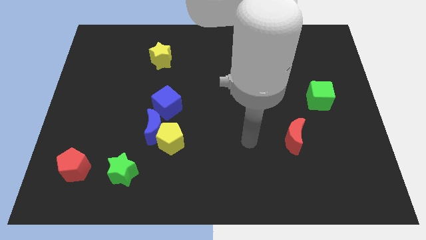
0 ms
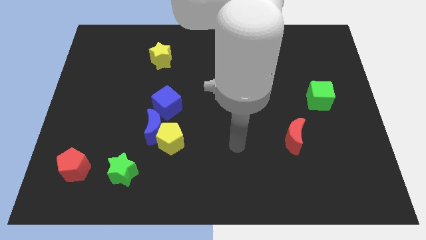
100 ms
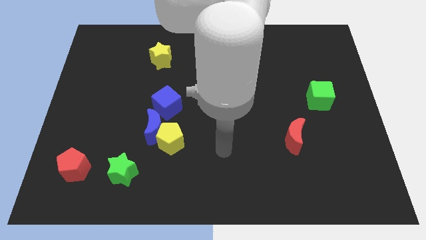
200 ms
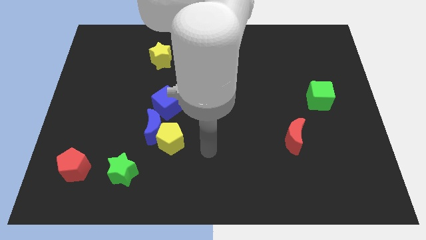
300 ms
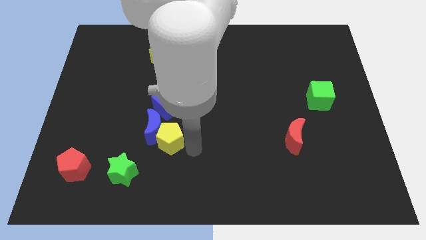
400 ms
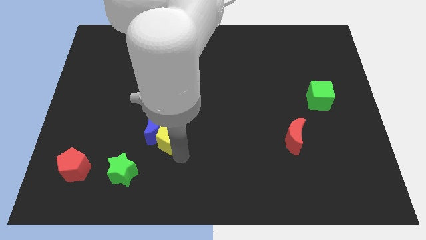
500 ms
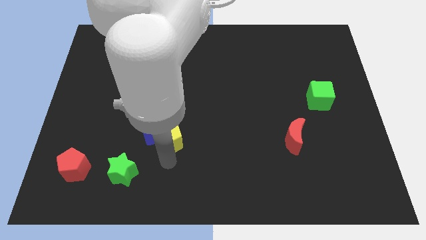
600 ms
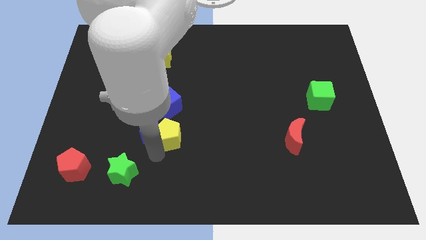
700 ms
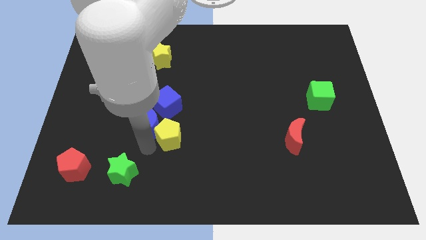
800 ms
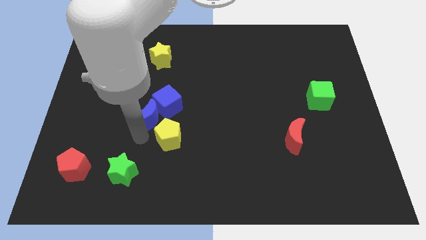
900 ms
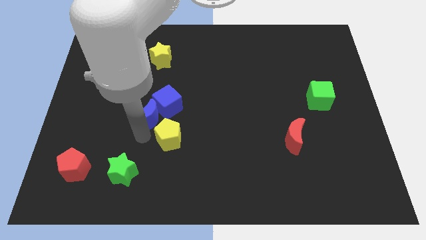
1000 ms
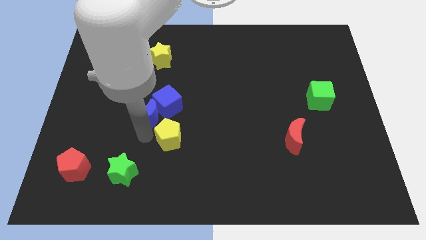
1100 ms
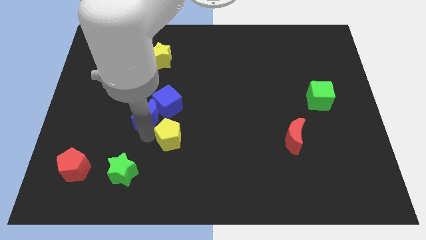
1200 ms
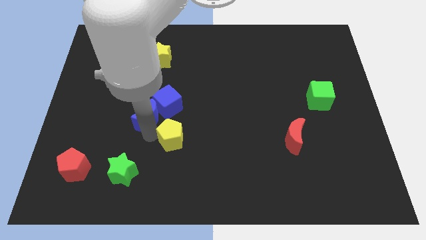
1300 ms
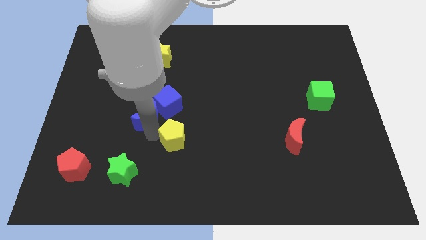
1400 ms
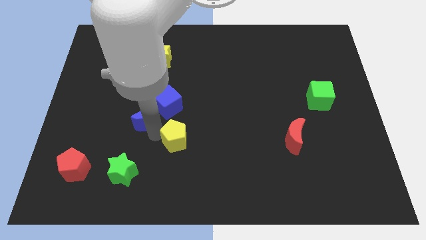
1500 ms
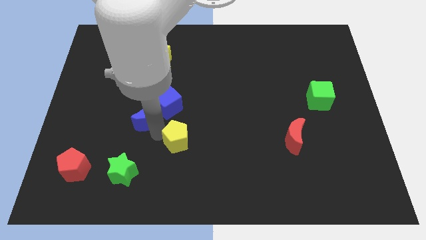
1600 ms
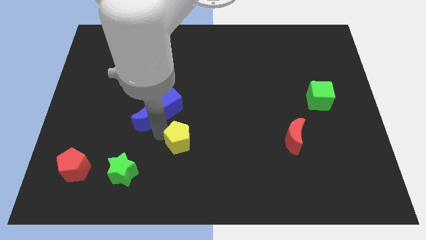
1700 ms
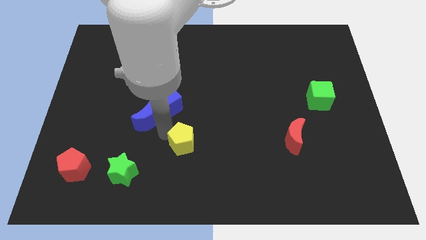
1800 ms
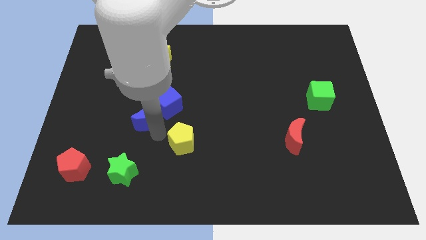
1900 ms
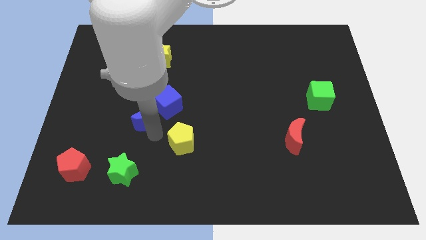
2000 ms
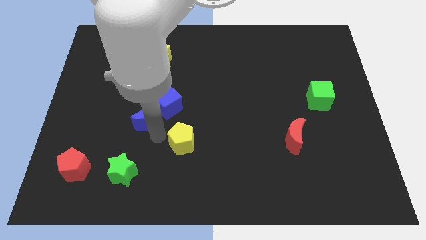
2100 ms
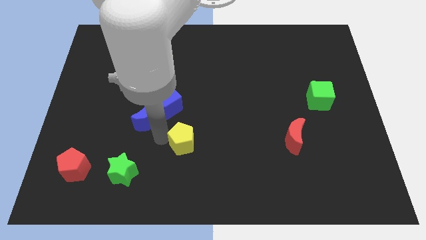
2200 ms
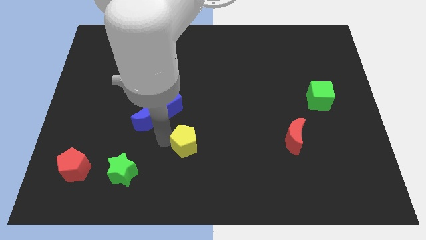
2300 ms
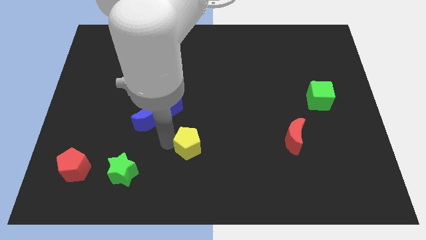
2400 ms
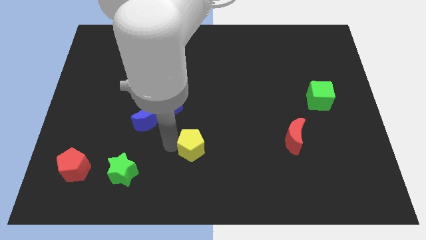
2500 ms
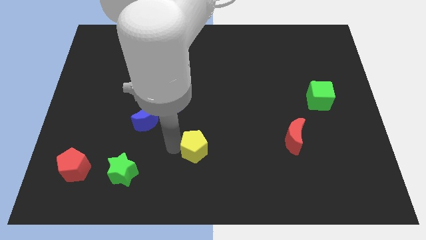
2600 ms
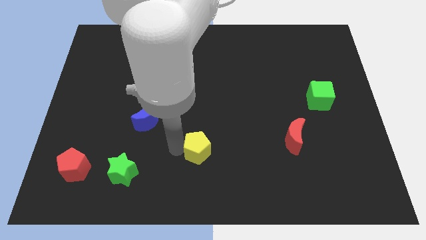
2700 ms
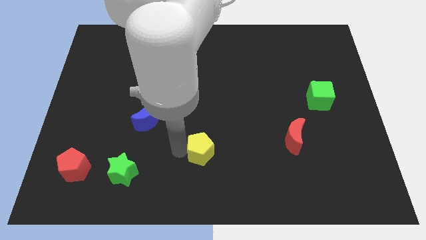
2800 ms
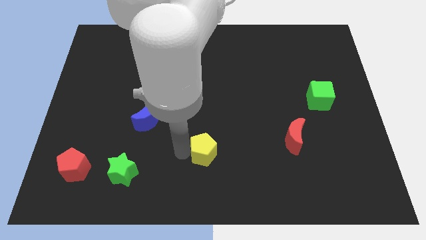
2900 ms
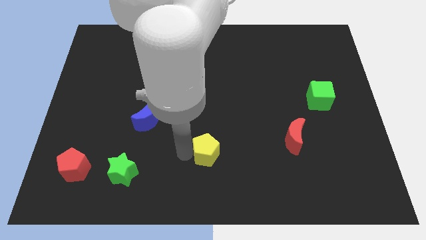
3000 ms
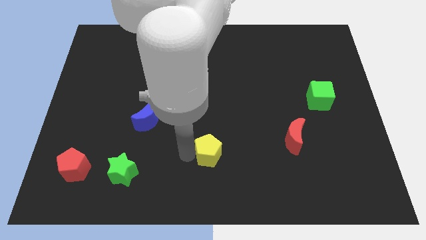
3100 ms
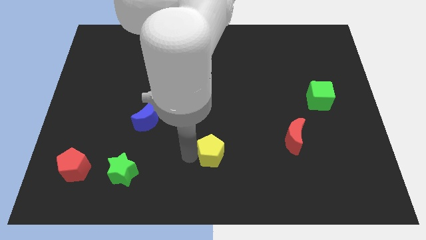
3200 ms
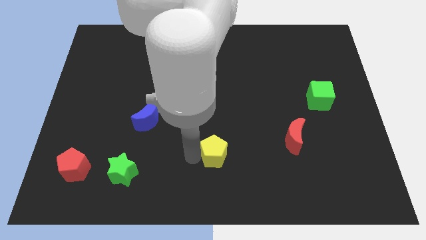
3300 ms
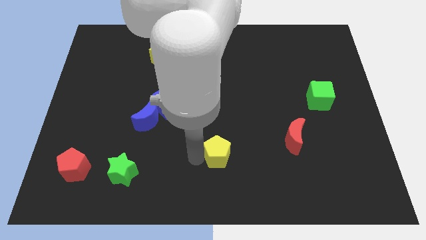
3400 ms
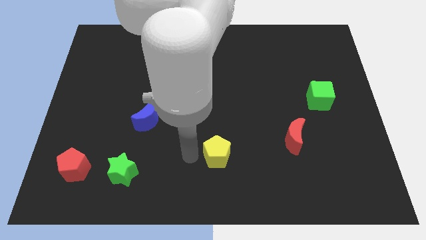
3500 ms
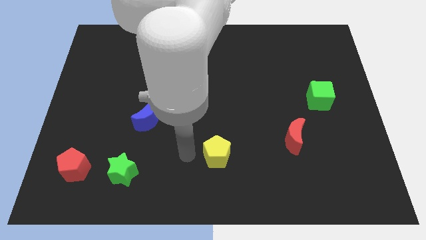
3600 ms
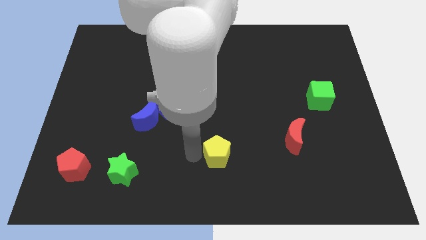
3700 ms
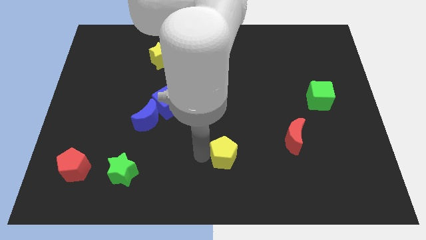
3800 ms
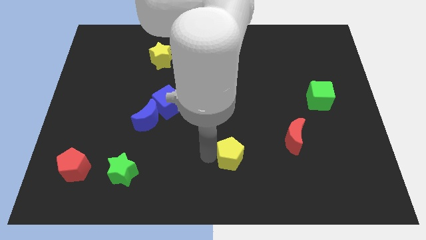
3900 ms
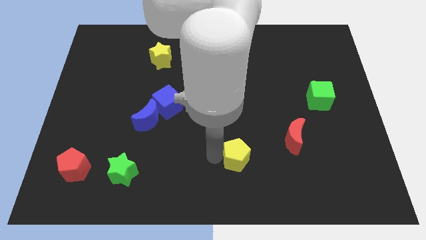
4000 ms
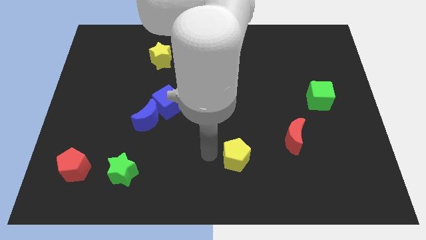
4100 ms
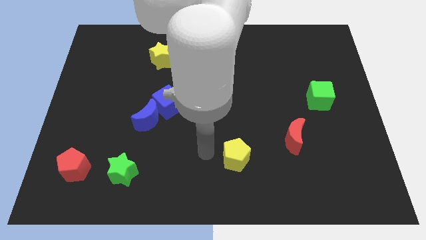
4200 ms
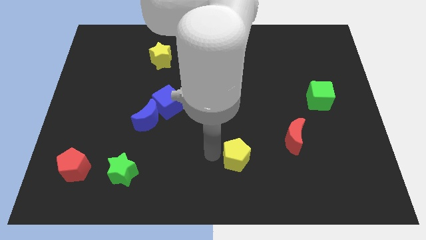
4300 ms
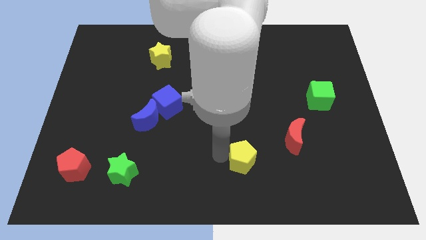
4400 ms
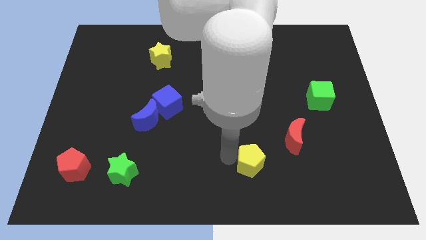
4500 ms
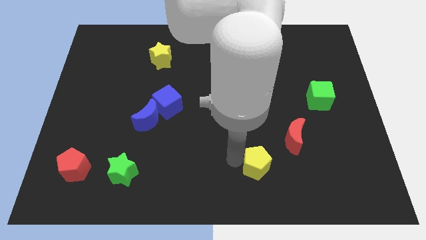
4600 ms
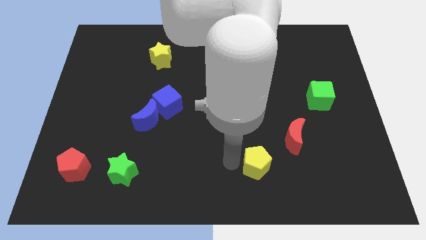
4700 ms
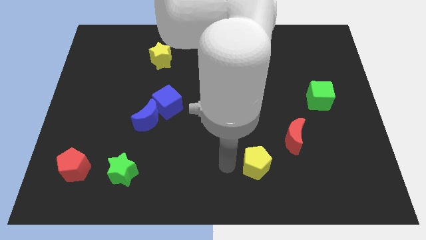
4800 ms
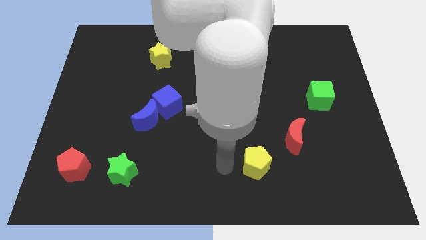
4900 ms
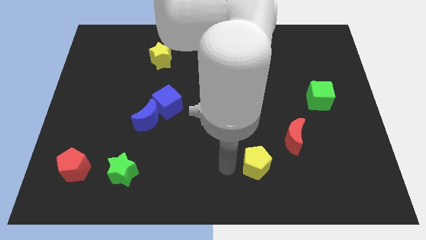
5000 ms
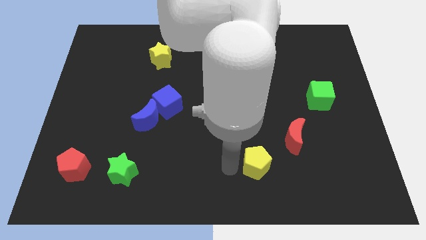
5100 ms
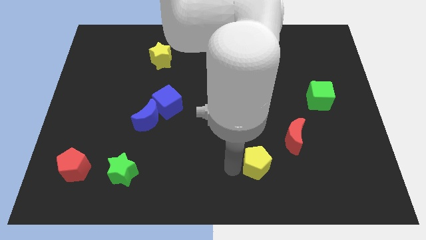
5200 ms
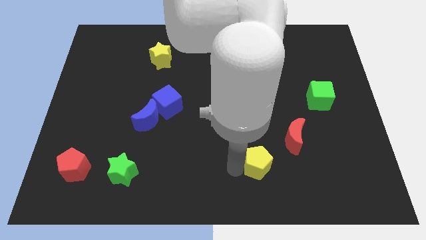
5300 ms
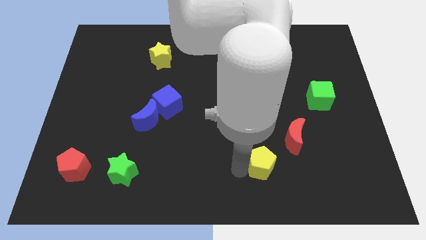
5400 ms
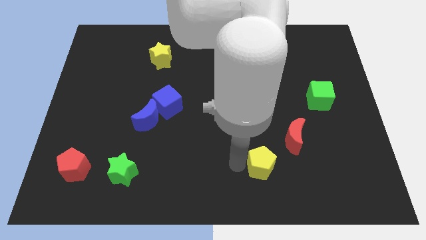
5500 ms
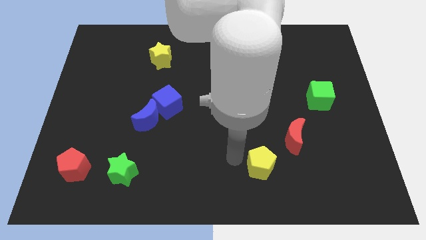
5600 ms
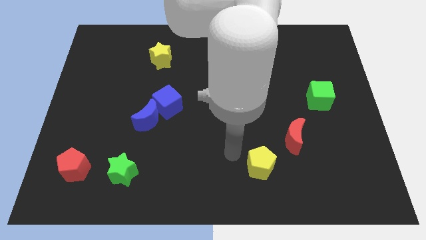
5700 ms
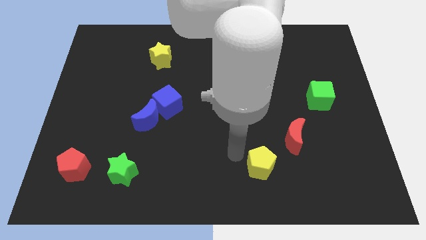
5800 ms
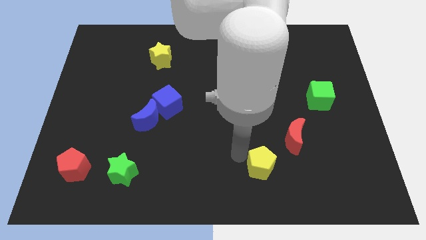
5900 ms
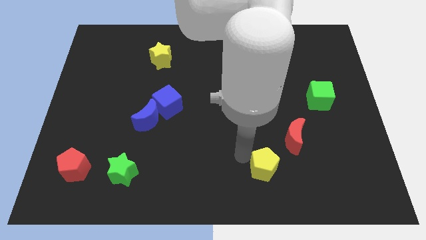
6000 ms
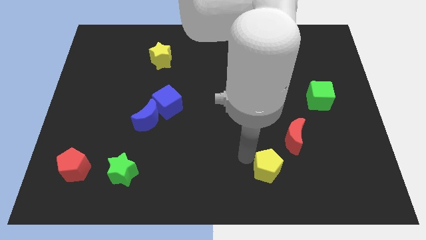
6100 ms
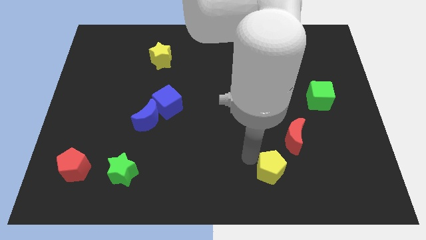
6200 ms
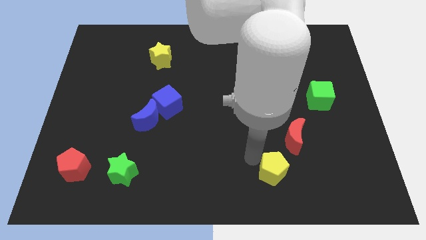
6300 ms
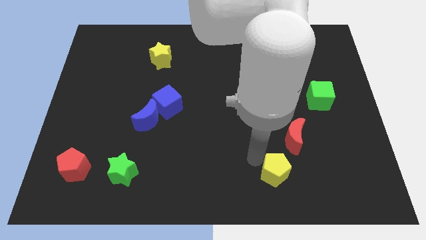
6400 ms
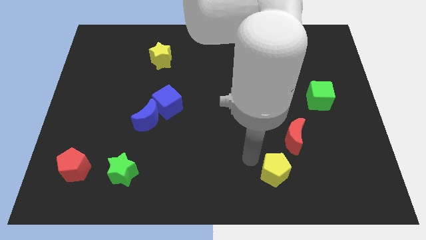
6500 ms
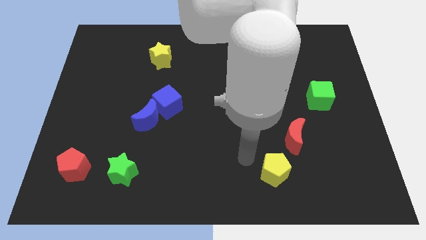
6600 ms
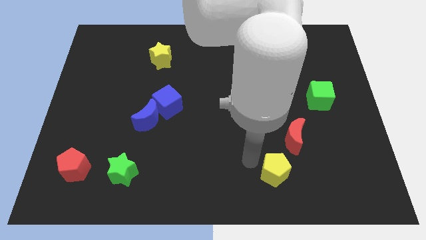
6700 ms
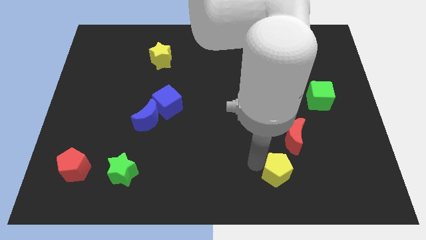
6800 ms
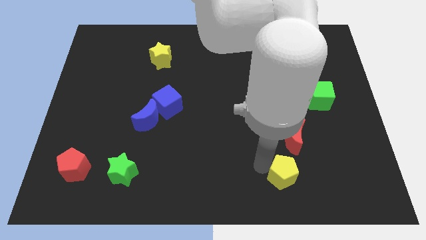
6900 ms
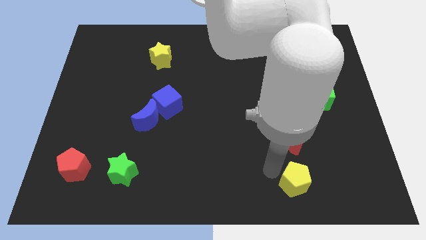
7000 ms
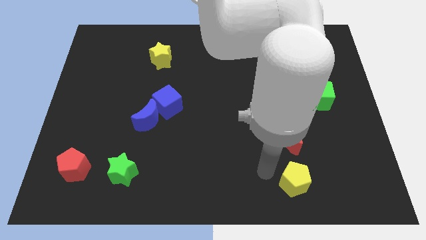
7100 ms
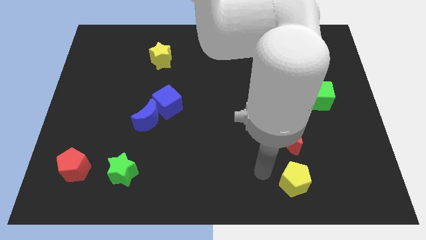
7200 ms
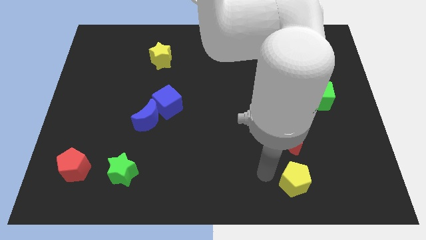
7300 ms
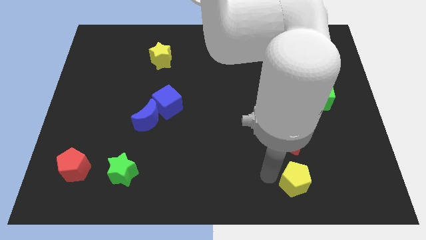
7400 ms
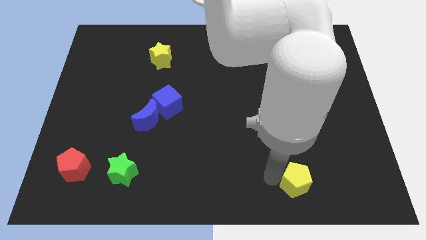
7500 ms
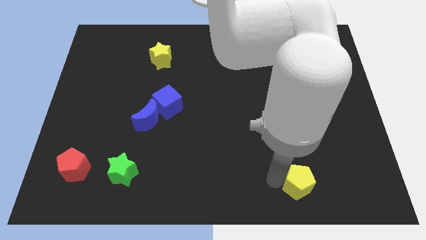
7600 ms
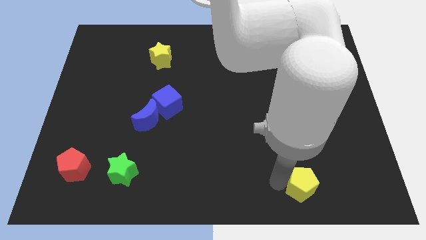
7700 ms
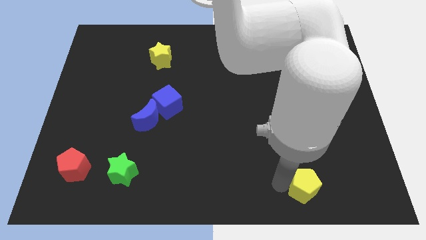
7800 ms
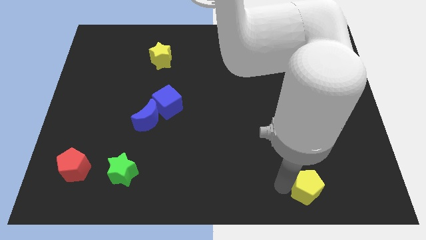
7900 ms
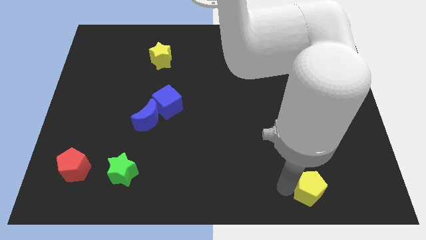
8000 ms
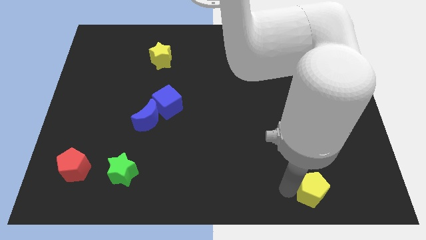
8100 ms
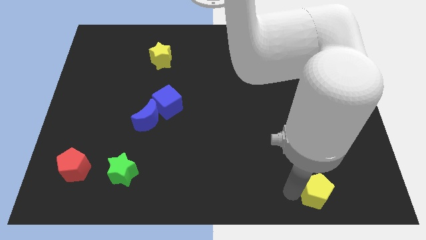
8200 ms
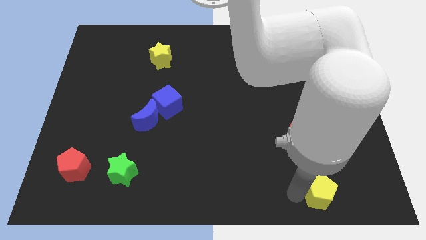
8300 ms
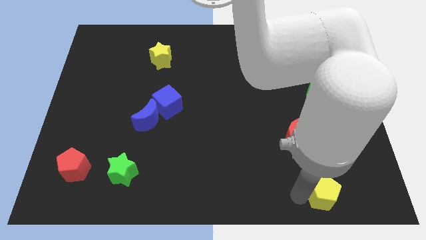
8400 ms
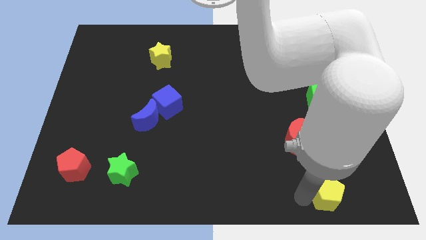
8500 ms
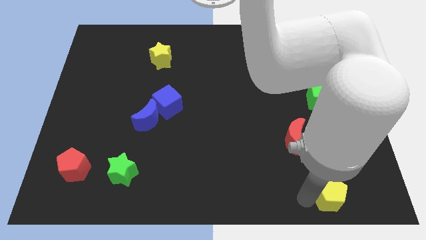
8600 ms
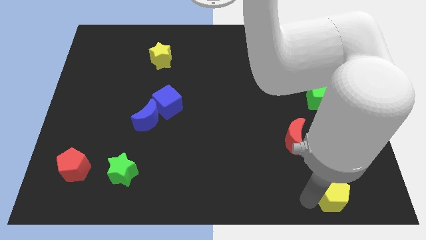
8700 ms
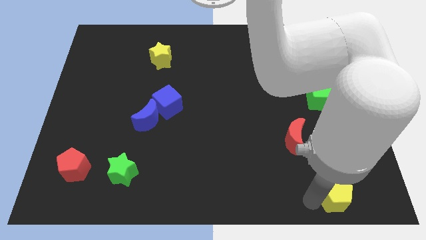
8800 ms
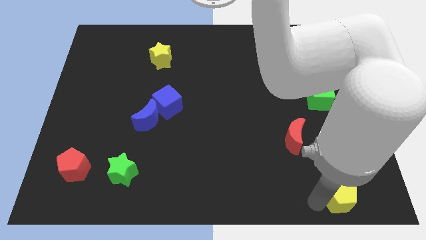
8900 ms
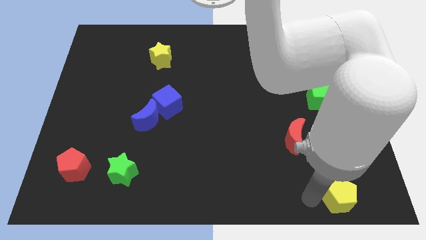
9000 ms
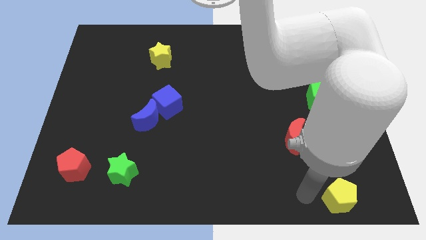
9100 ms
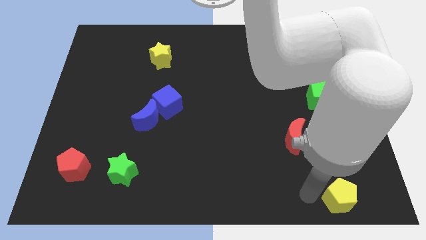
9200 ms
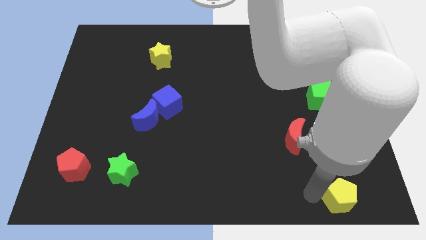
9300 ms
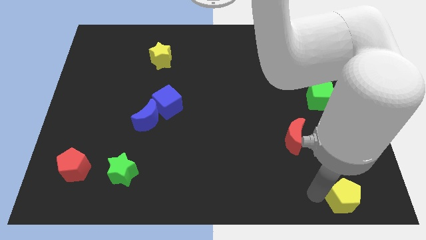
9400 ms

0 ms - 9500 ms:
slide the yellow pentagon to the bottom right of the board
